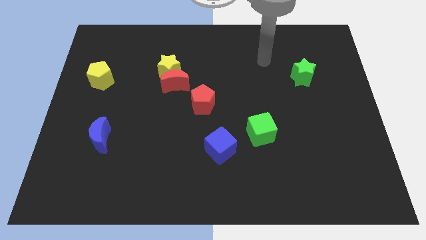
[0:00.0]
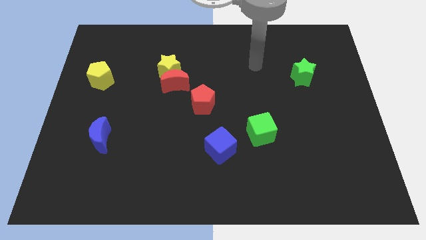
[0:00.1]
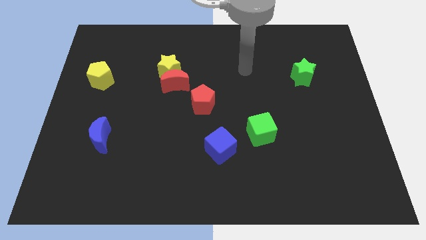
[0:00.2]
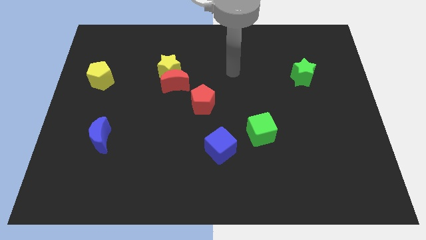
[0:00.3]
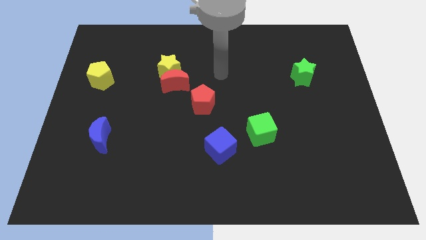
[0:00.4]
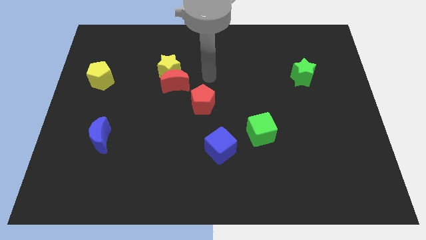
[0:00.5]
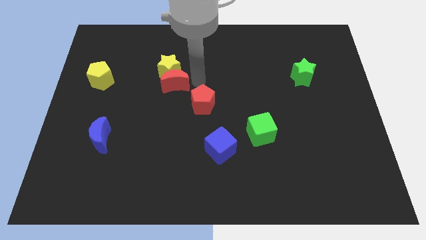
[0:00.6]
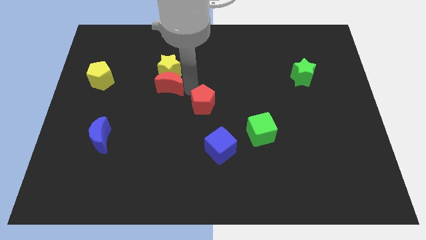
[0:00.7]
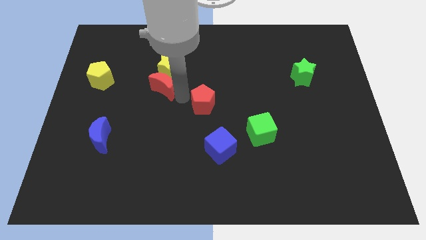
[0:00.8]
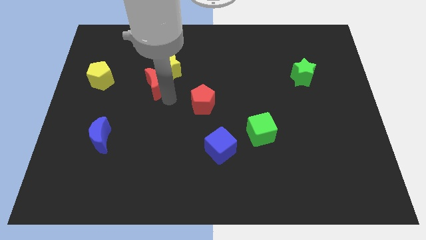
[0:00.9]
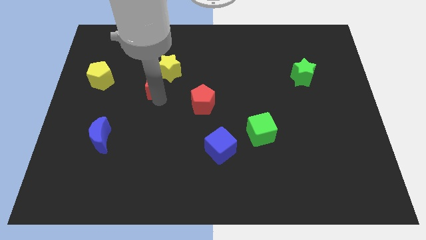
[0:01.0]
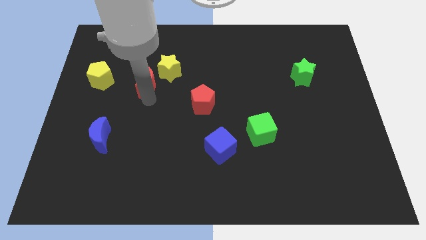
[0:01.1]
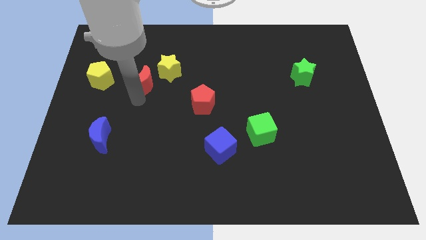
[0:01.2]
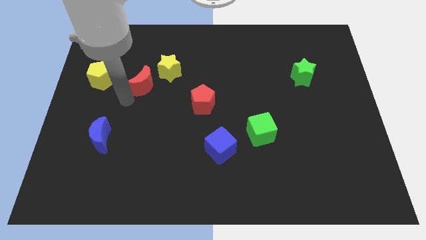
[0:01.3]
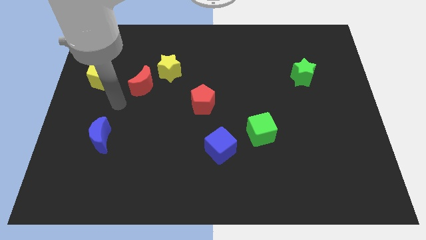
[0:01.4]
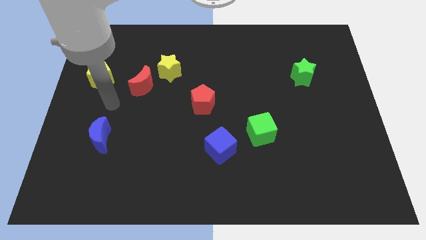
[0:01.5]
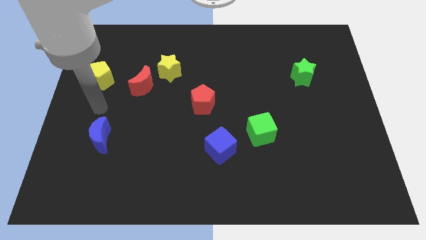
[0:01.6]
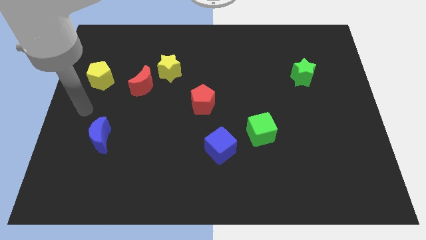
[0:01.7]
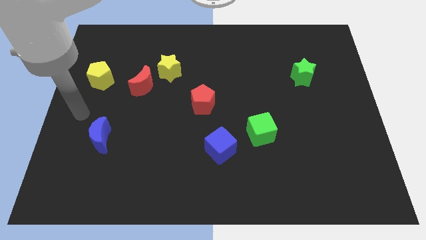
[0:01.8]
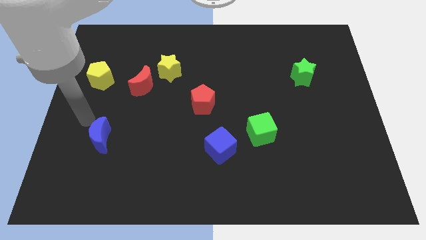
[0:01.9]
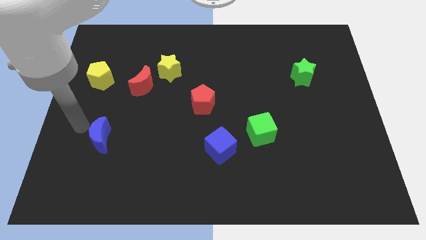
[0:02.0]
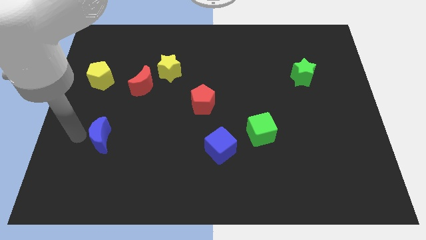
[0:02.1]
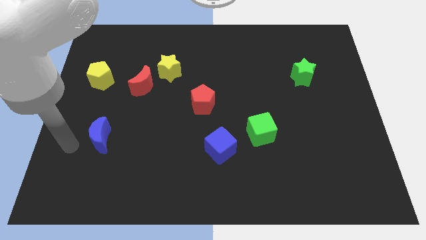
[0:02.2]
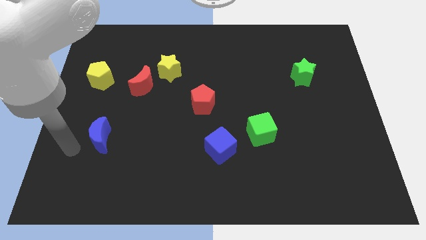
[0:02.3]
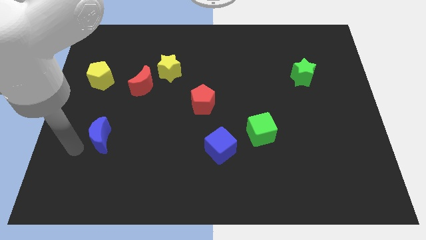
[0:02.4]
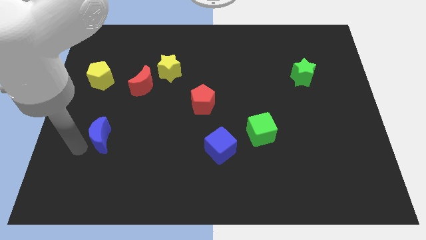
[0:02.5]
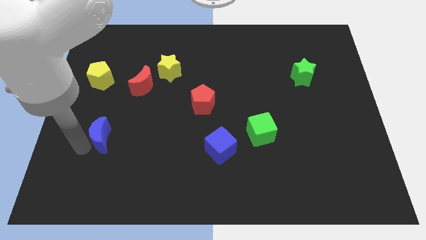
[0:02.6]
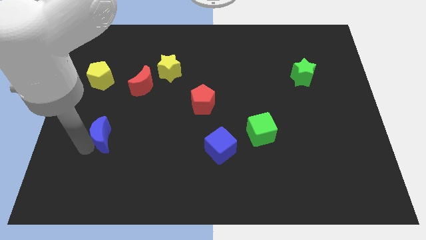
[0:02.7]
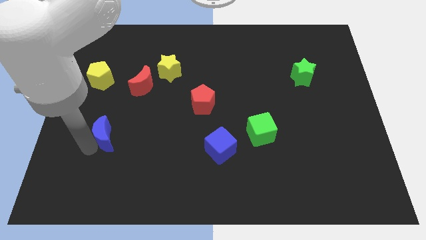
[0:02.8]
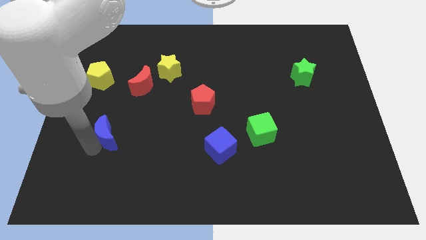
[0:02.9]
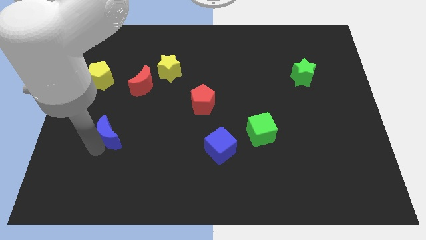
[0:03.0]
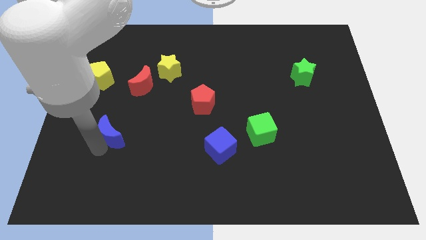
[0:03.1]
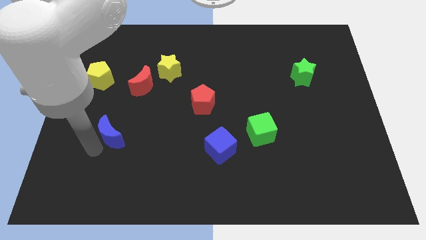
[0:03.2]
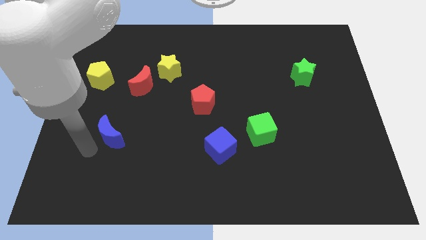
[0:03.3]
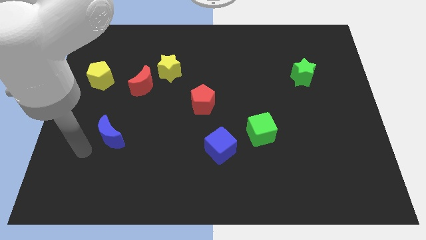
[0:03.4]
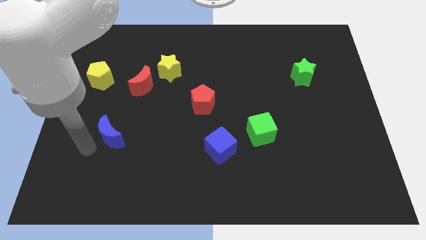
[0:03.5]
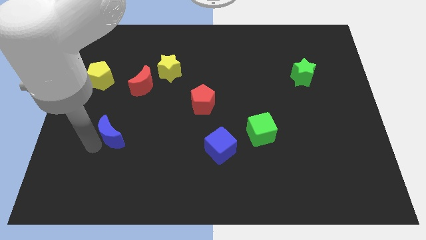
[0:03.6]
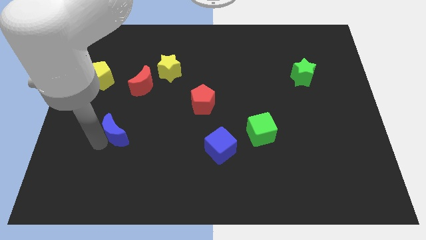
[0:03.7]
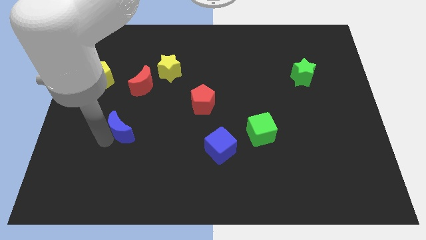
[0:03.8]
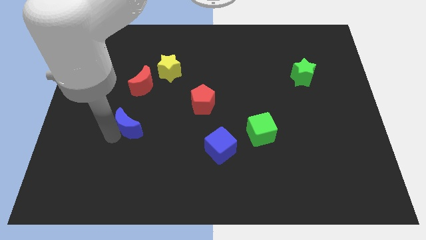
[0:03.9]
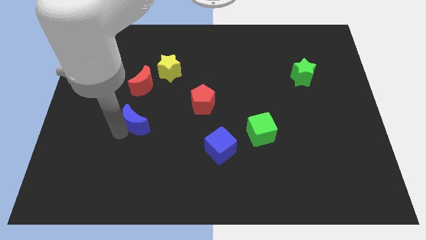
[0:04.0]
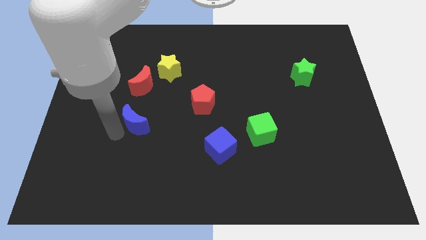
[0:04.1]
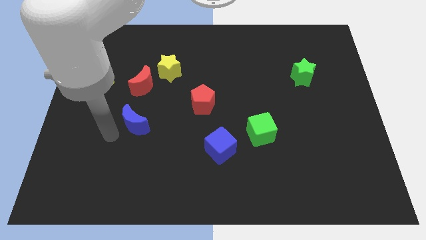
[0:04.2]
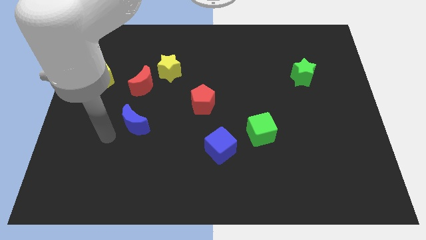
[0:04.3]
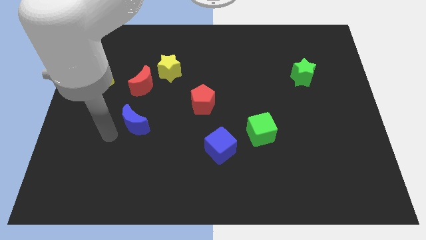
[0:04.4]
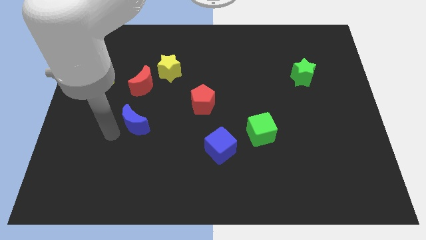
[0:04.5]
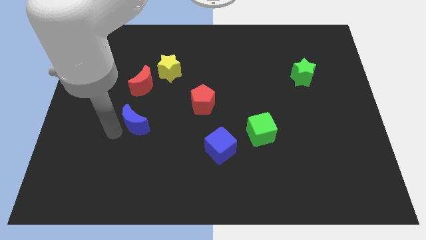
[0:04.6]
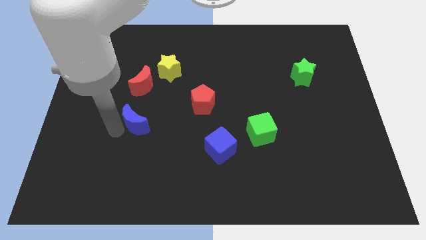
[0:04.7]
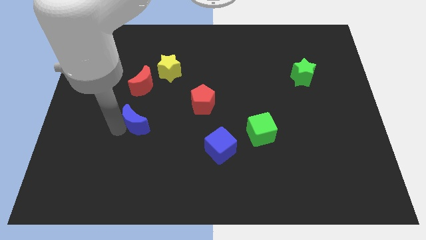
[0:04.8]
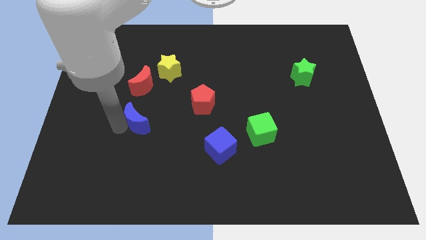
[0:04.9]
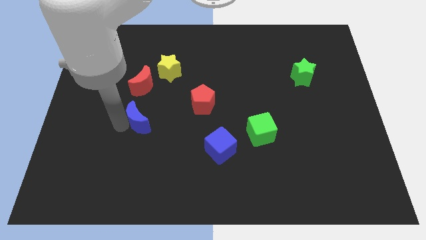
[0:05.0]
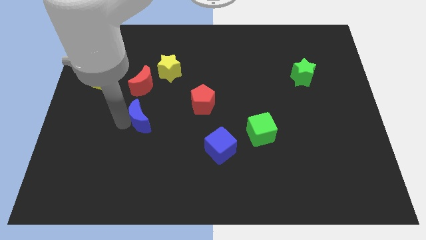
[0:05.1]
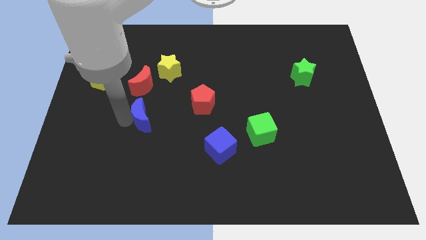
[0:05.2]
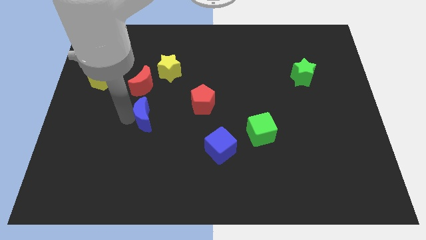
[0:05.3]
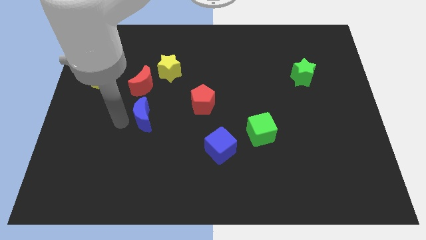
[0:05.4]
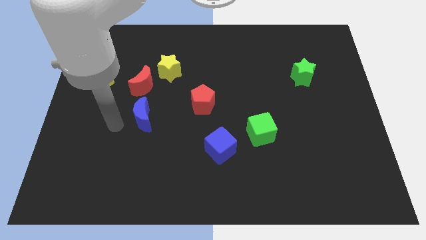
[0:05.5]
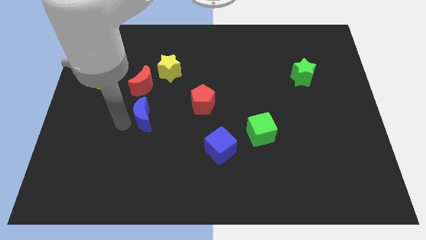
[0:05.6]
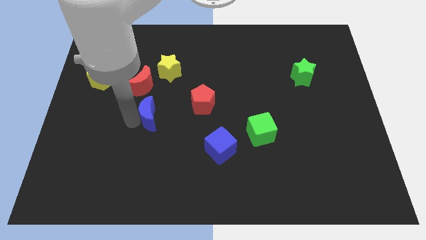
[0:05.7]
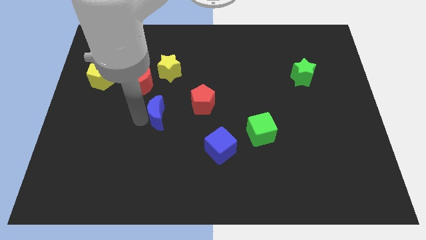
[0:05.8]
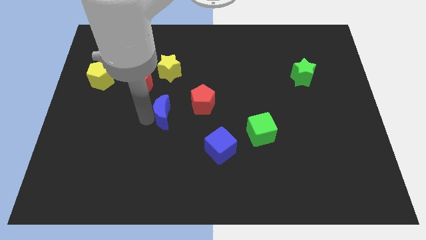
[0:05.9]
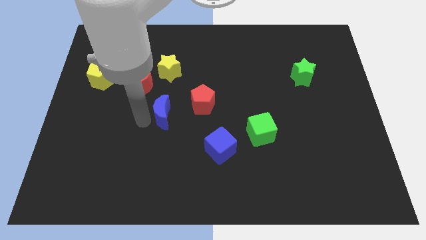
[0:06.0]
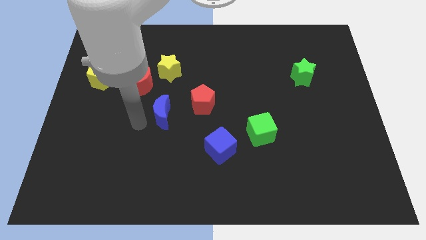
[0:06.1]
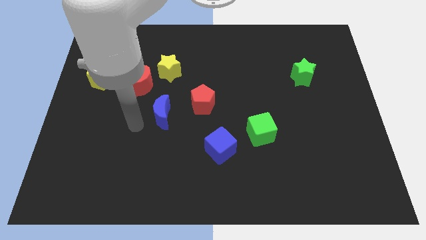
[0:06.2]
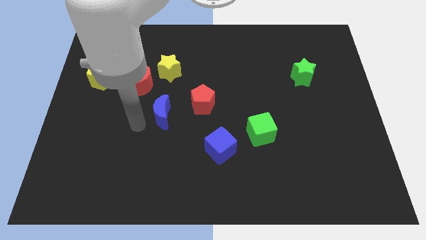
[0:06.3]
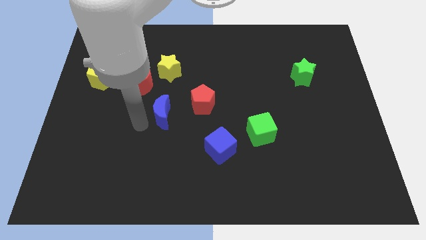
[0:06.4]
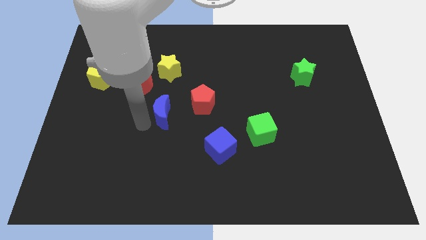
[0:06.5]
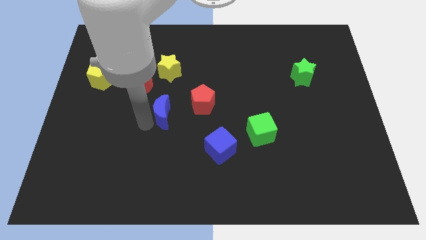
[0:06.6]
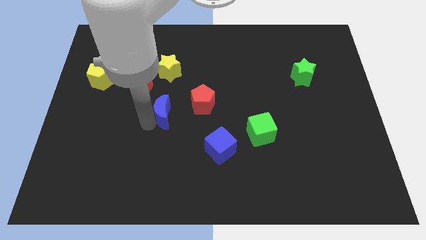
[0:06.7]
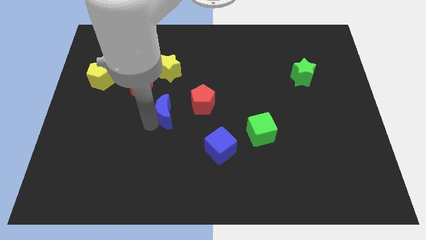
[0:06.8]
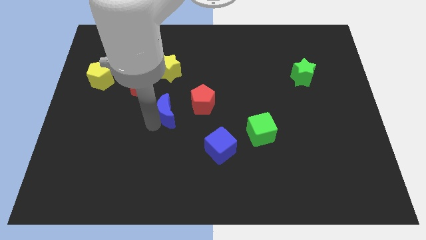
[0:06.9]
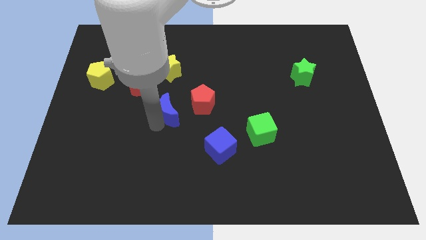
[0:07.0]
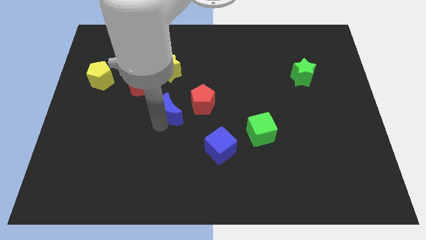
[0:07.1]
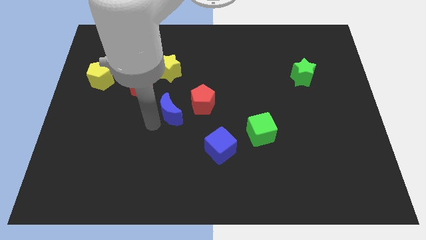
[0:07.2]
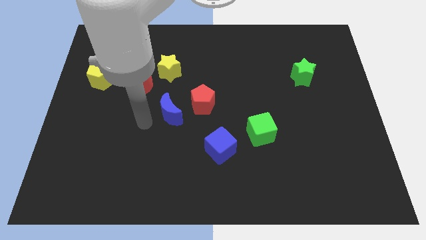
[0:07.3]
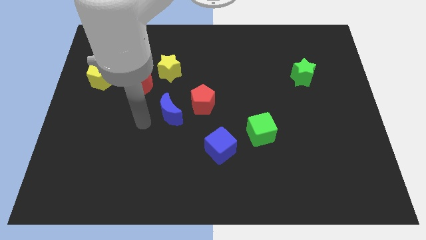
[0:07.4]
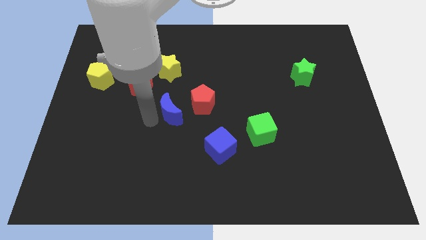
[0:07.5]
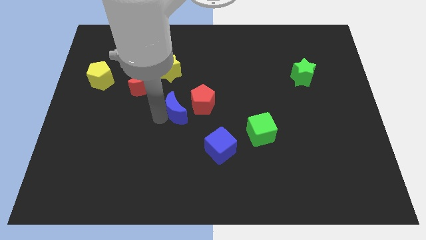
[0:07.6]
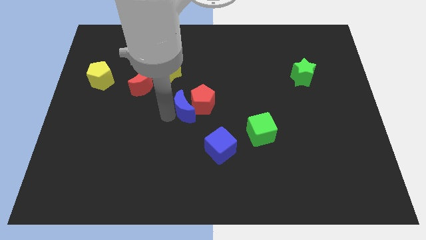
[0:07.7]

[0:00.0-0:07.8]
move the blue moon to the red pentagon
